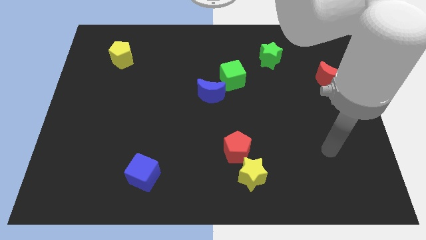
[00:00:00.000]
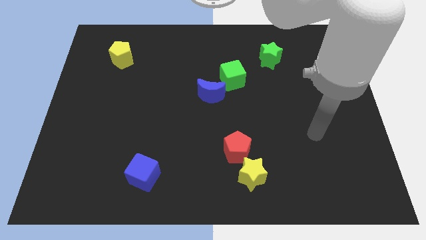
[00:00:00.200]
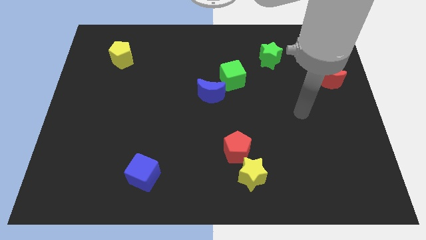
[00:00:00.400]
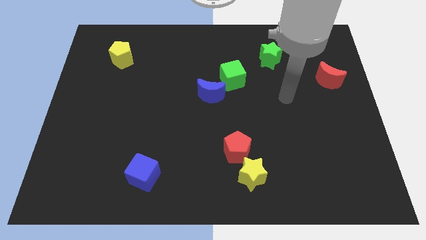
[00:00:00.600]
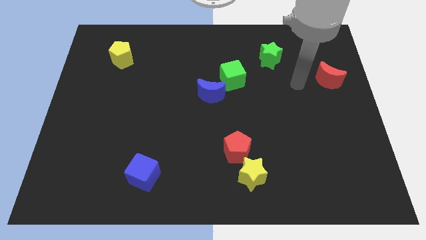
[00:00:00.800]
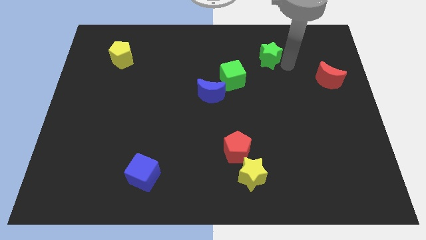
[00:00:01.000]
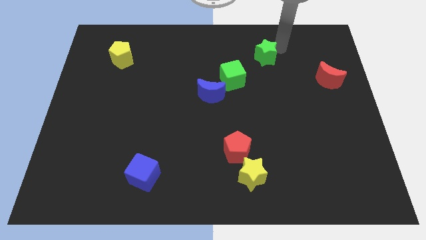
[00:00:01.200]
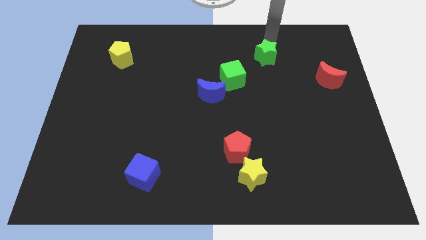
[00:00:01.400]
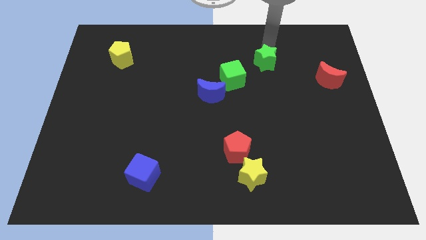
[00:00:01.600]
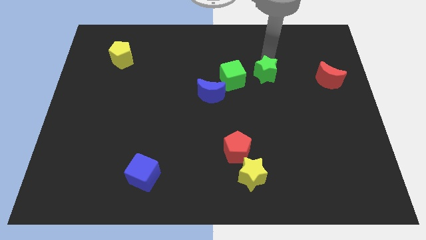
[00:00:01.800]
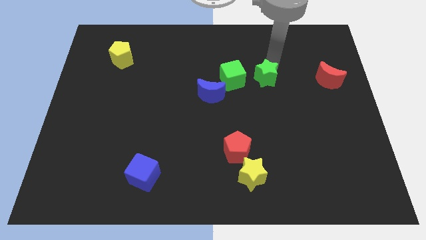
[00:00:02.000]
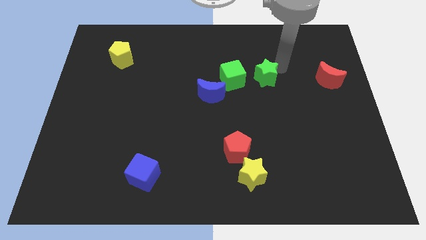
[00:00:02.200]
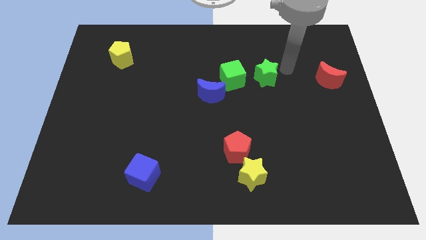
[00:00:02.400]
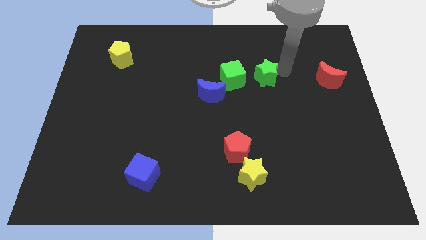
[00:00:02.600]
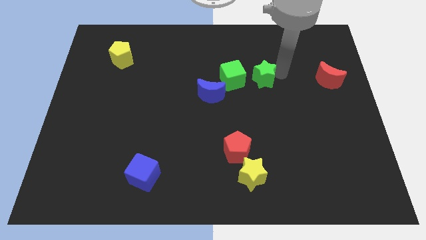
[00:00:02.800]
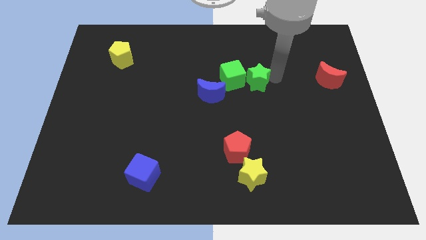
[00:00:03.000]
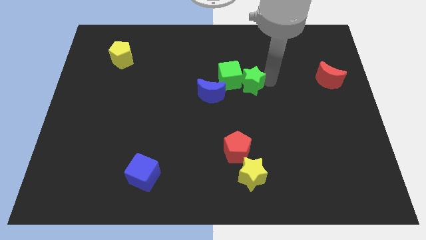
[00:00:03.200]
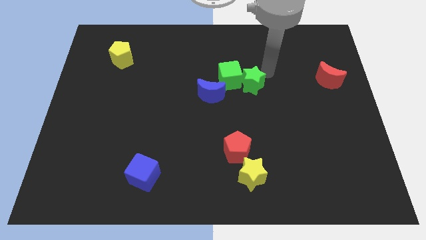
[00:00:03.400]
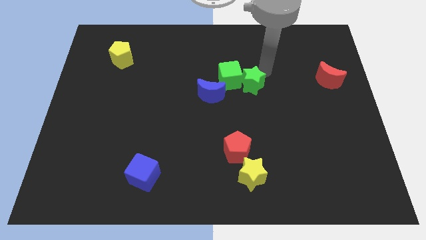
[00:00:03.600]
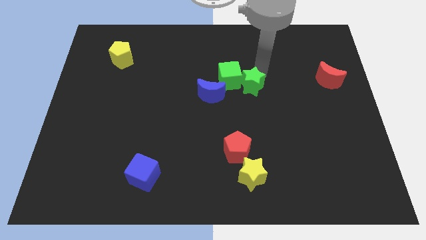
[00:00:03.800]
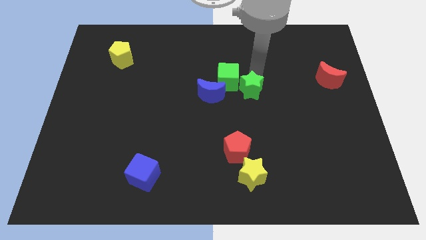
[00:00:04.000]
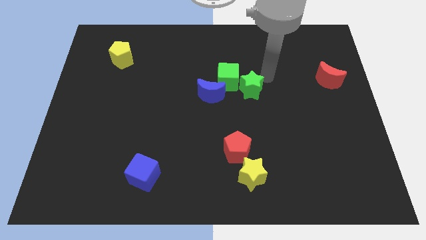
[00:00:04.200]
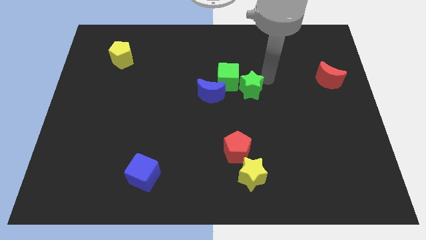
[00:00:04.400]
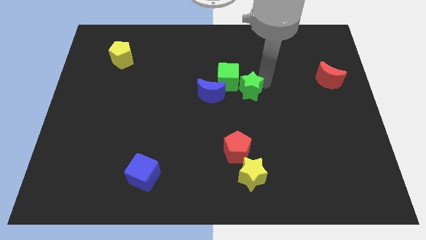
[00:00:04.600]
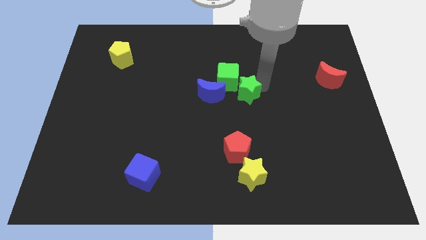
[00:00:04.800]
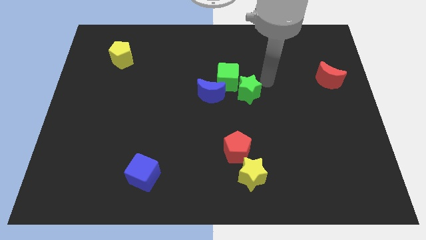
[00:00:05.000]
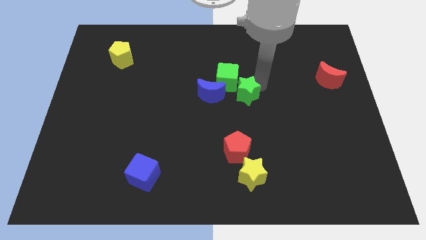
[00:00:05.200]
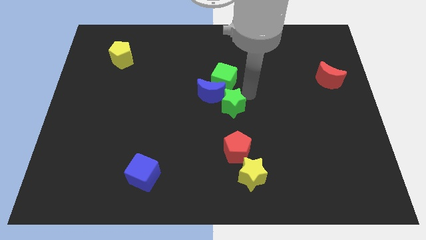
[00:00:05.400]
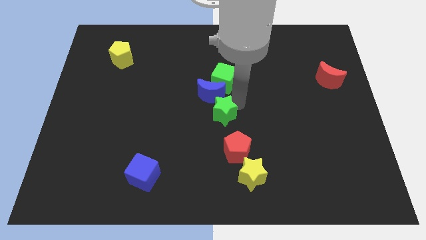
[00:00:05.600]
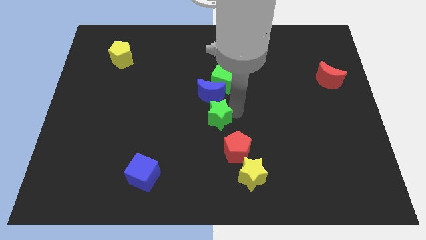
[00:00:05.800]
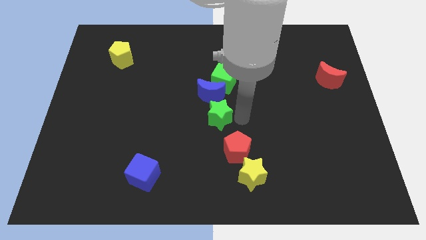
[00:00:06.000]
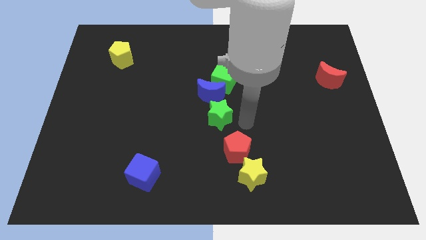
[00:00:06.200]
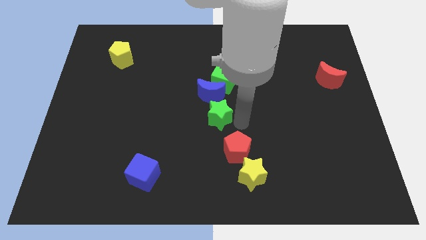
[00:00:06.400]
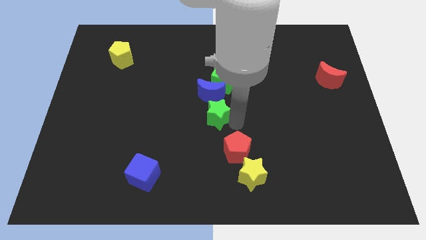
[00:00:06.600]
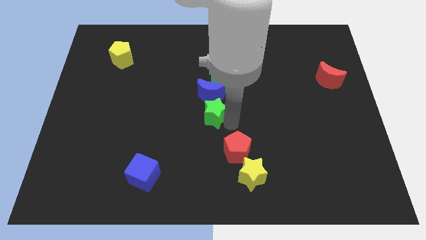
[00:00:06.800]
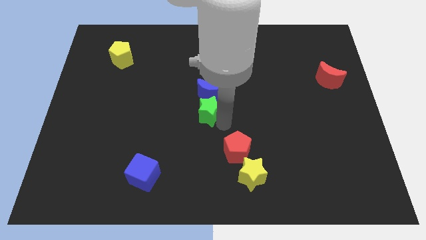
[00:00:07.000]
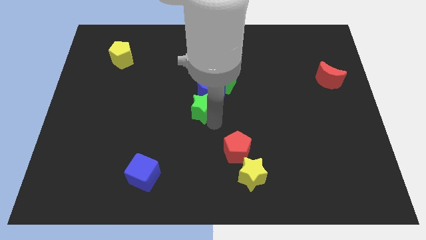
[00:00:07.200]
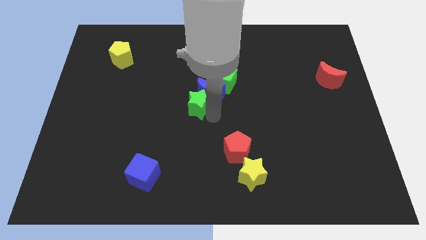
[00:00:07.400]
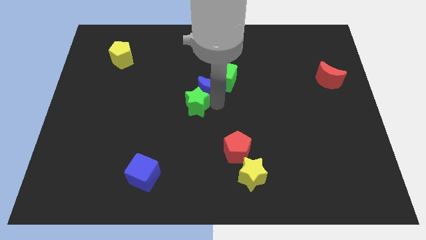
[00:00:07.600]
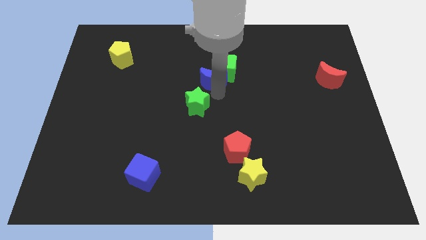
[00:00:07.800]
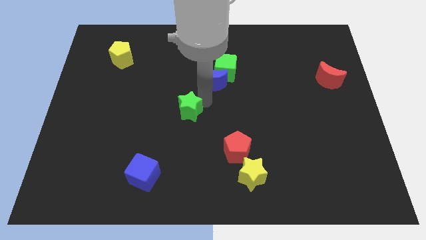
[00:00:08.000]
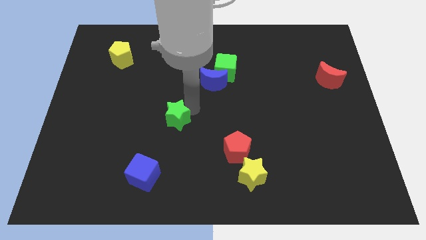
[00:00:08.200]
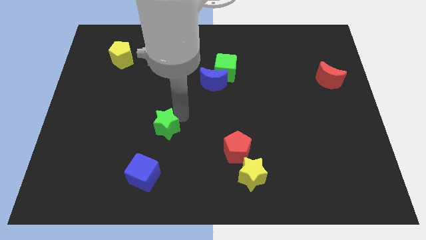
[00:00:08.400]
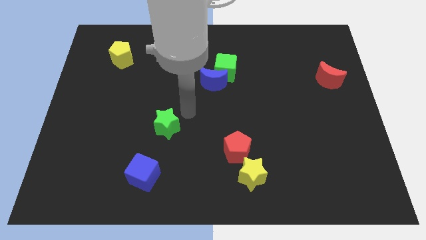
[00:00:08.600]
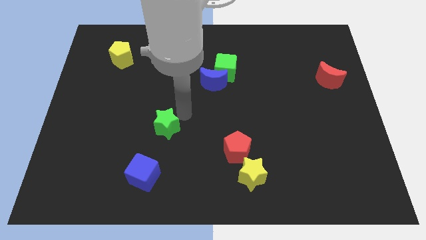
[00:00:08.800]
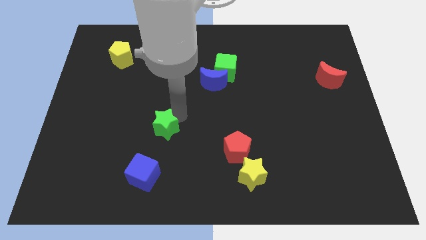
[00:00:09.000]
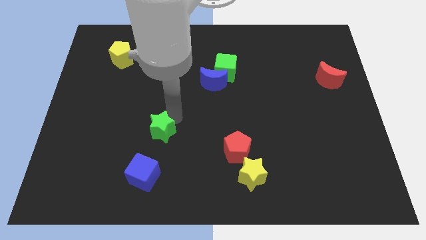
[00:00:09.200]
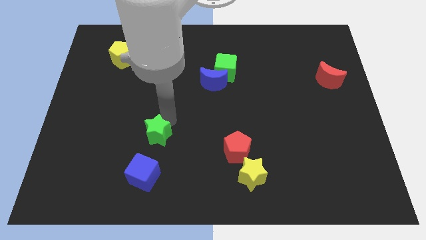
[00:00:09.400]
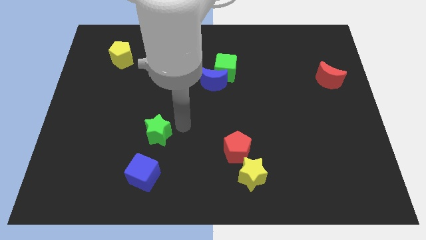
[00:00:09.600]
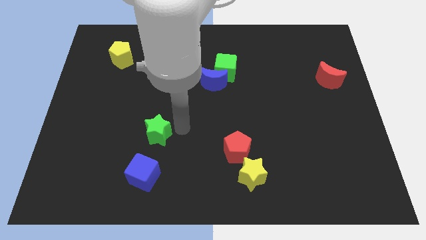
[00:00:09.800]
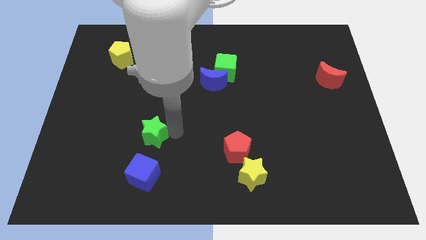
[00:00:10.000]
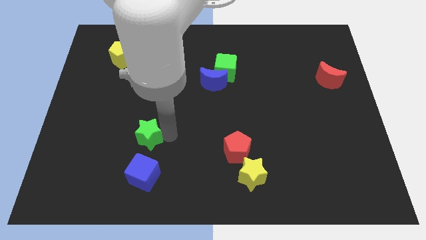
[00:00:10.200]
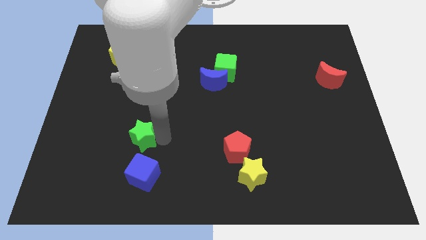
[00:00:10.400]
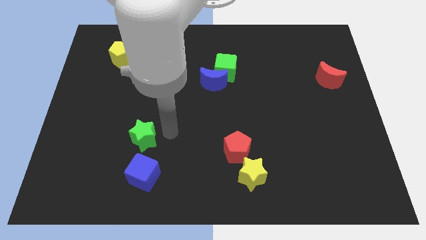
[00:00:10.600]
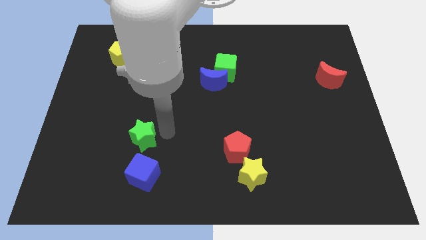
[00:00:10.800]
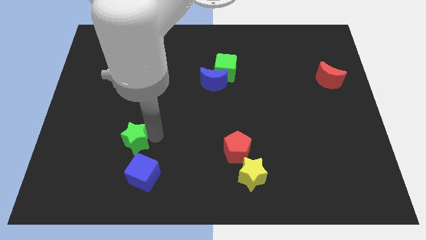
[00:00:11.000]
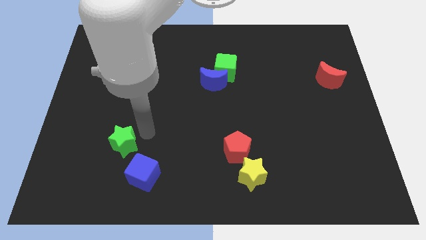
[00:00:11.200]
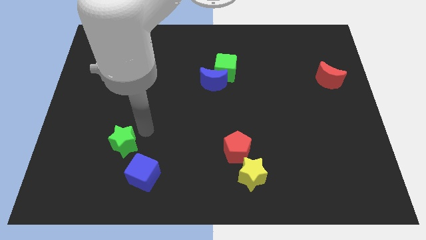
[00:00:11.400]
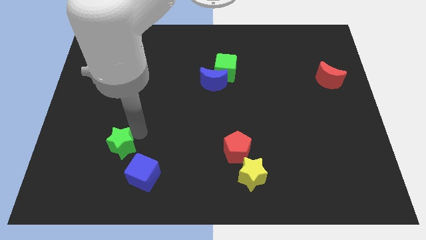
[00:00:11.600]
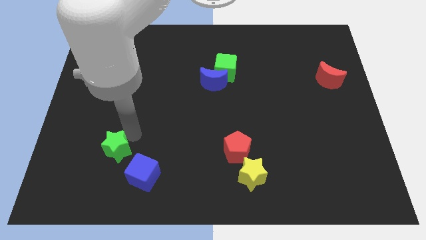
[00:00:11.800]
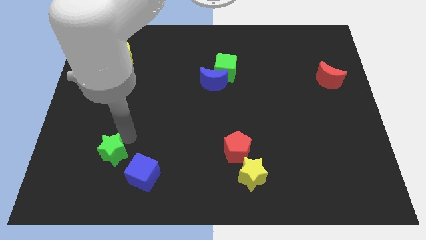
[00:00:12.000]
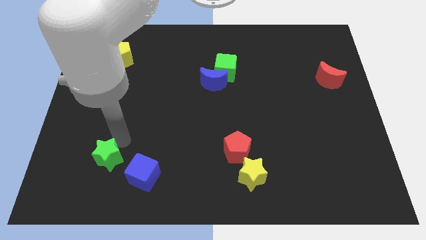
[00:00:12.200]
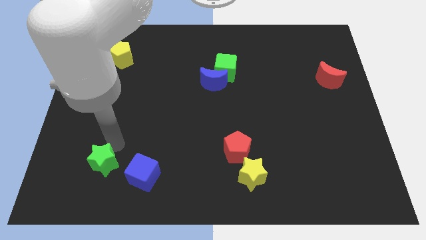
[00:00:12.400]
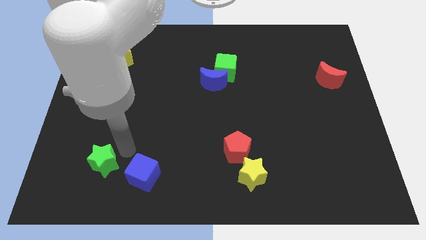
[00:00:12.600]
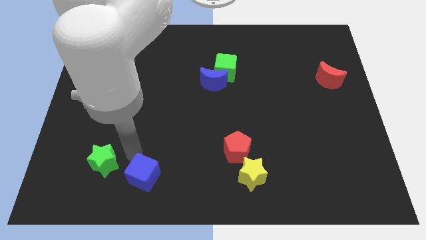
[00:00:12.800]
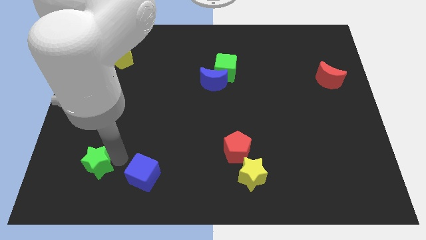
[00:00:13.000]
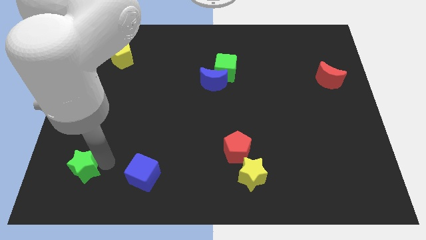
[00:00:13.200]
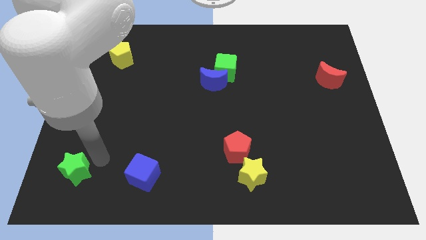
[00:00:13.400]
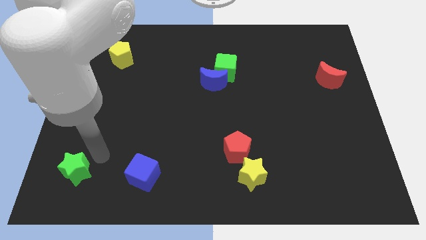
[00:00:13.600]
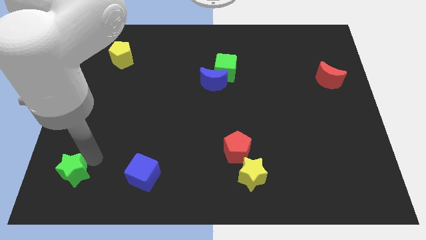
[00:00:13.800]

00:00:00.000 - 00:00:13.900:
move the green star to the bottom left corner

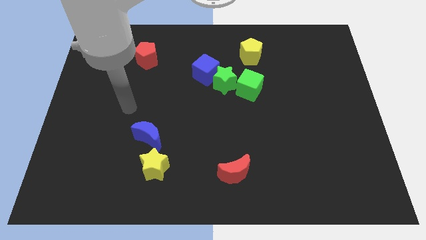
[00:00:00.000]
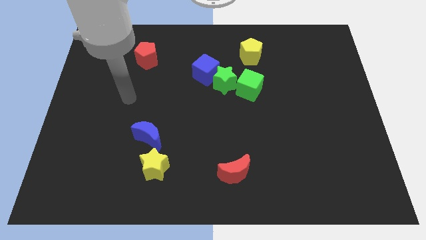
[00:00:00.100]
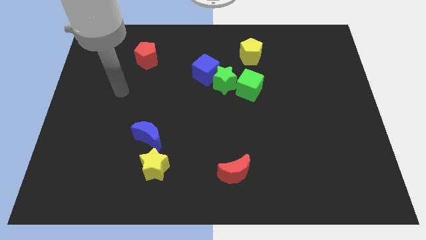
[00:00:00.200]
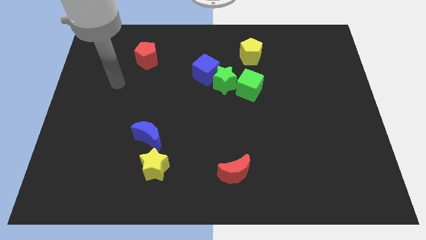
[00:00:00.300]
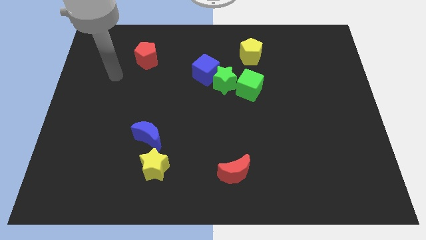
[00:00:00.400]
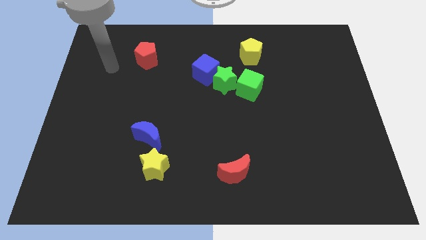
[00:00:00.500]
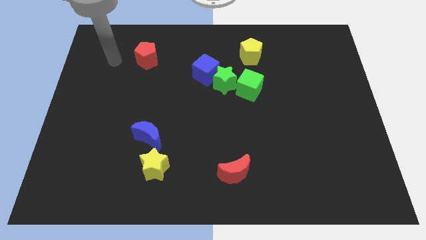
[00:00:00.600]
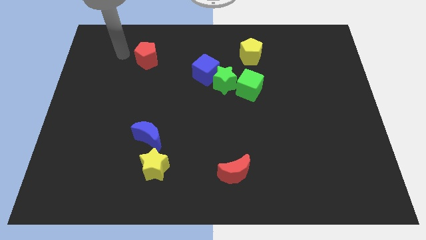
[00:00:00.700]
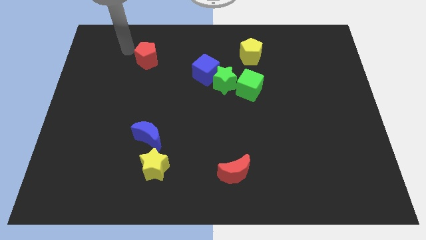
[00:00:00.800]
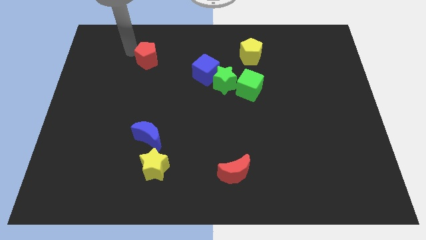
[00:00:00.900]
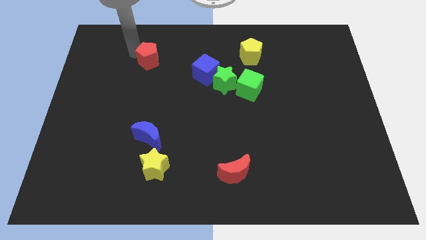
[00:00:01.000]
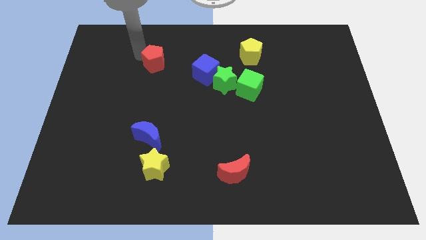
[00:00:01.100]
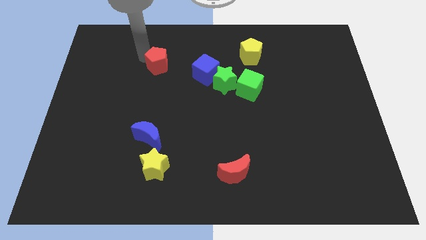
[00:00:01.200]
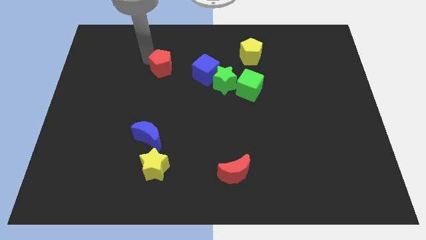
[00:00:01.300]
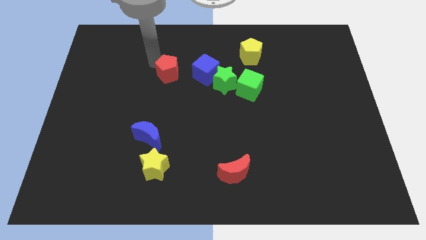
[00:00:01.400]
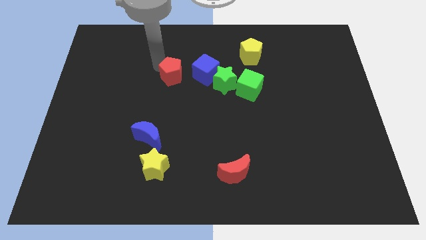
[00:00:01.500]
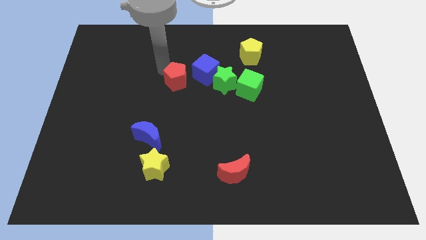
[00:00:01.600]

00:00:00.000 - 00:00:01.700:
move the red pentagon to the middle of the board
